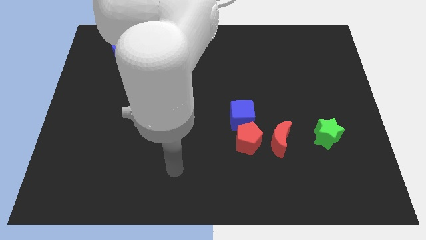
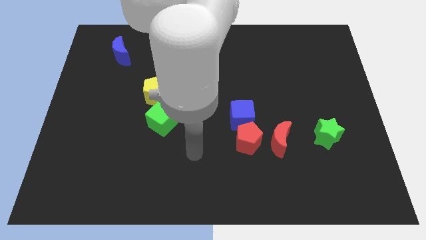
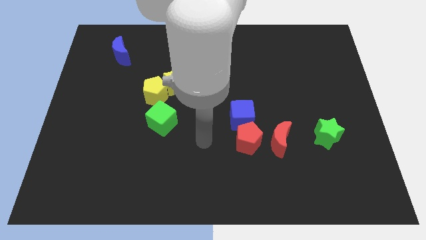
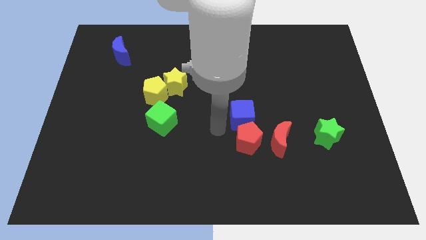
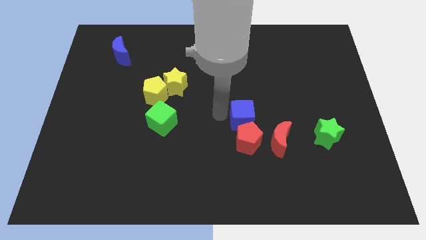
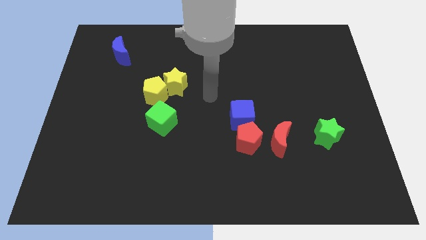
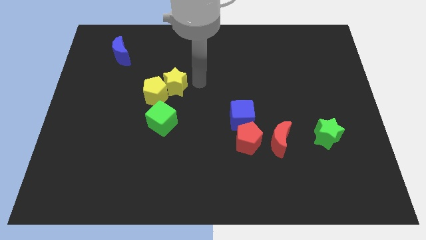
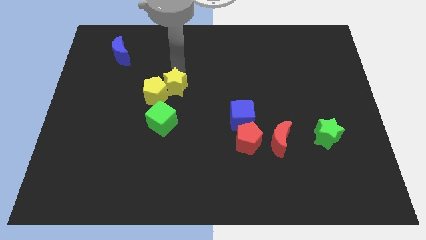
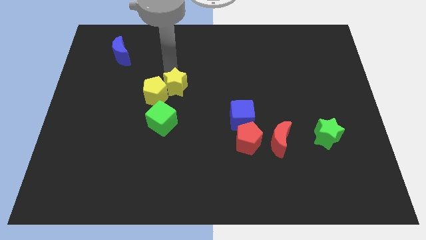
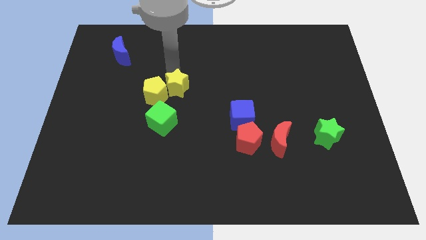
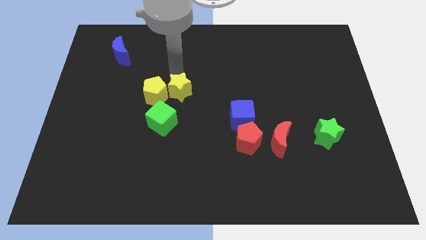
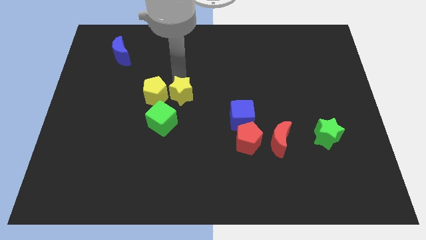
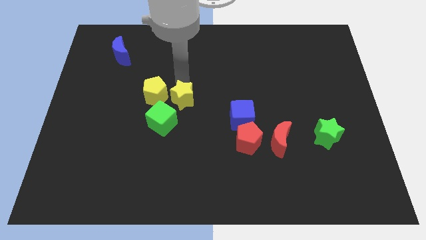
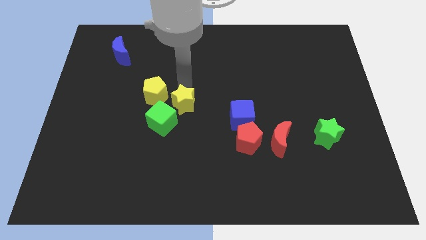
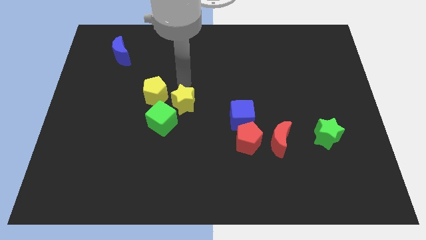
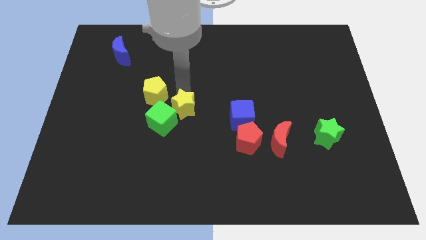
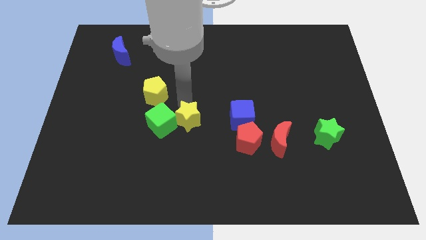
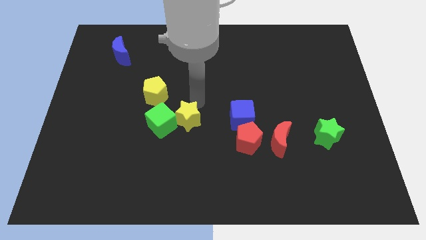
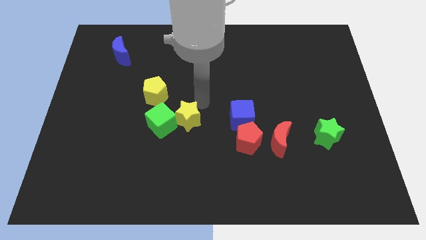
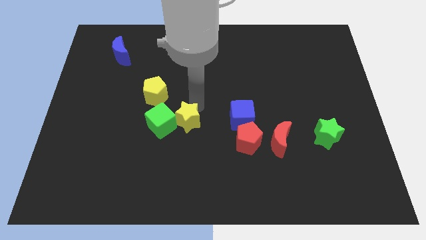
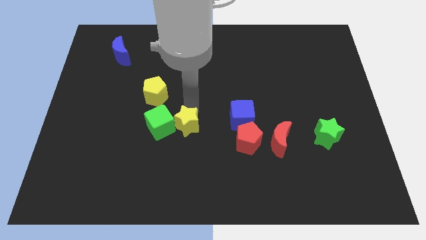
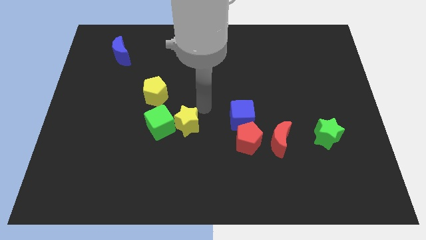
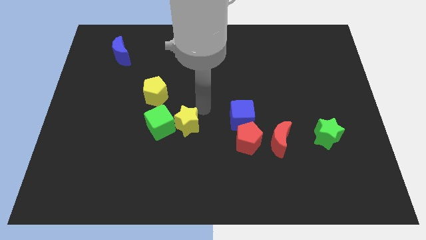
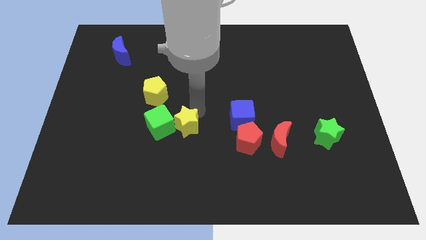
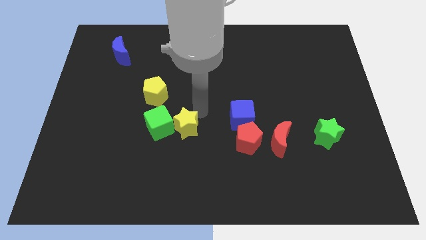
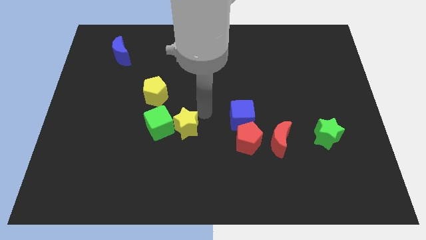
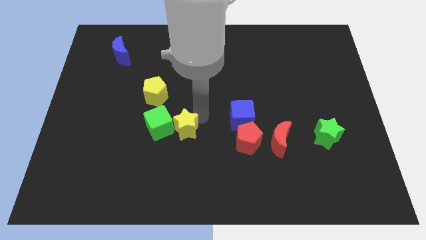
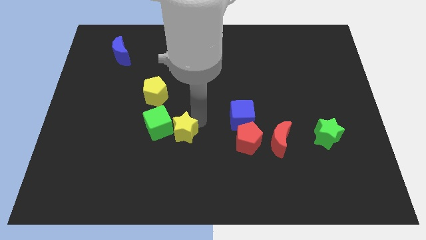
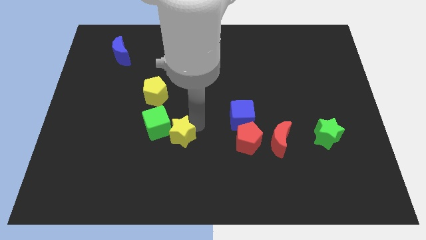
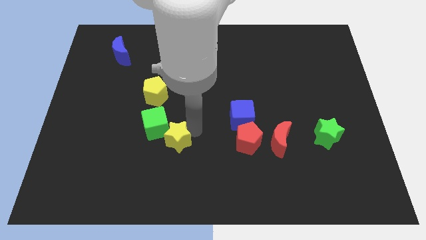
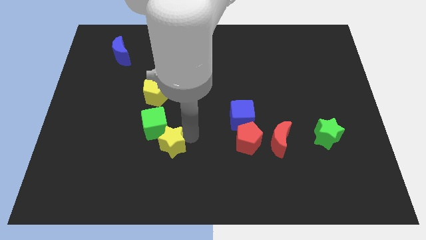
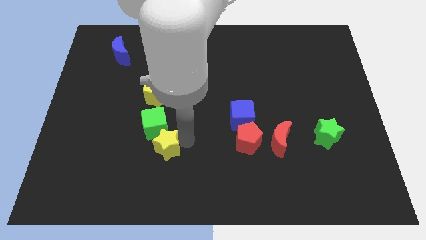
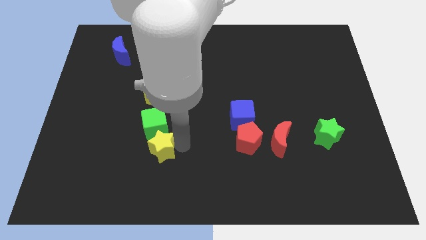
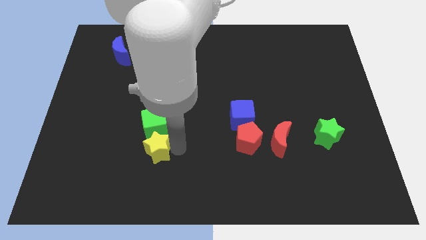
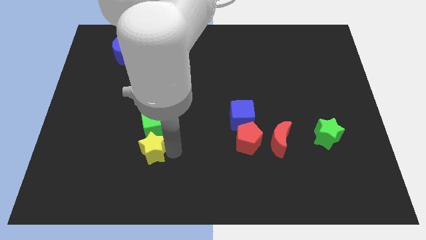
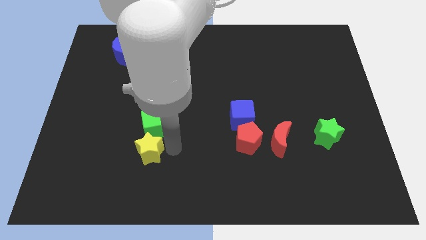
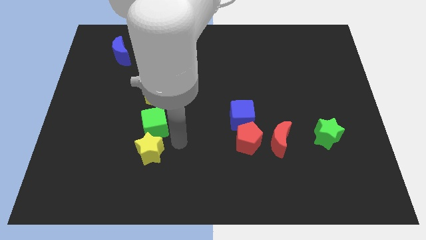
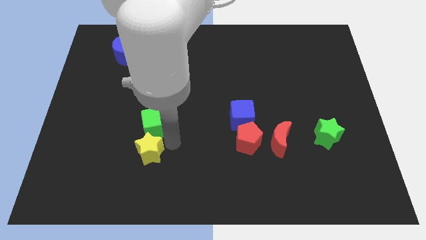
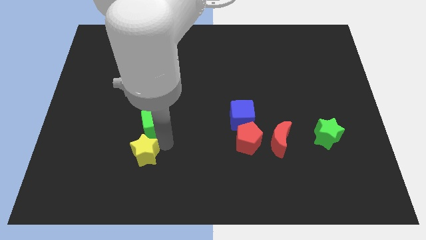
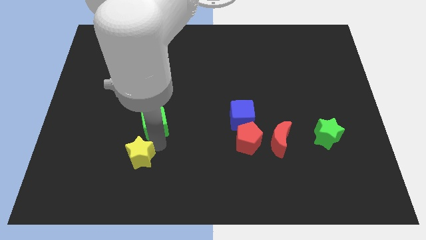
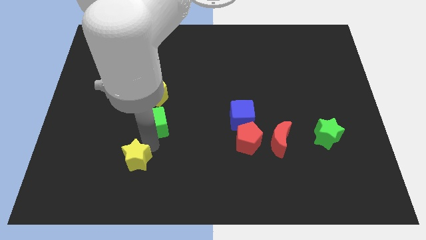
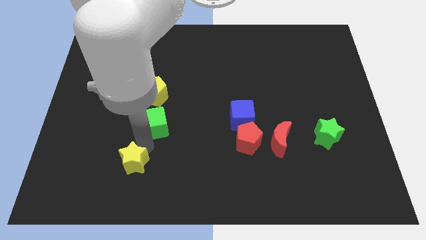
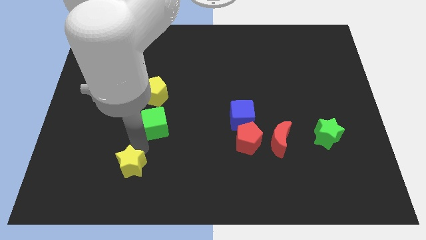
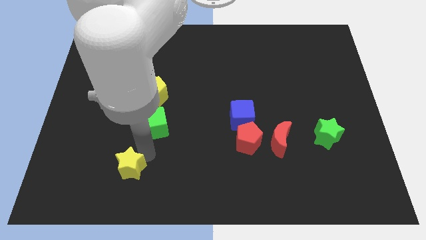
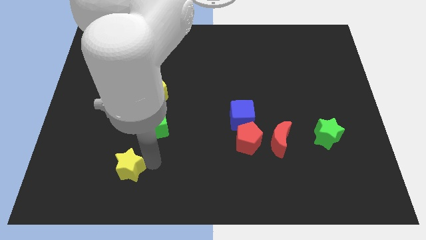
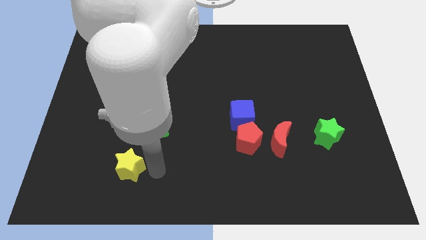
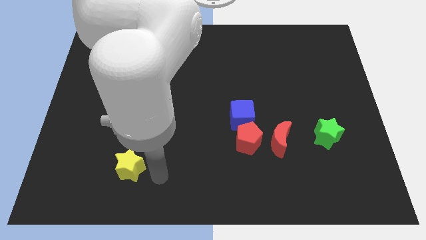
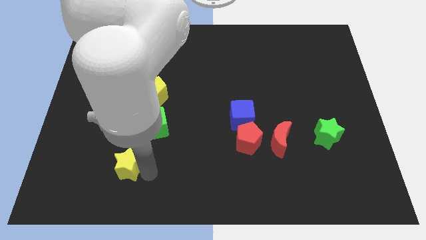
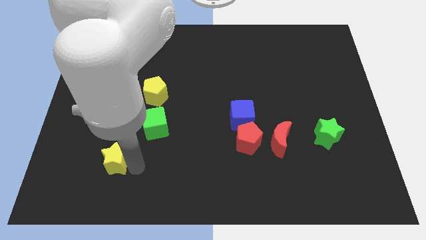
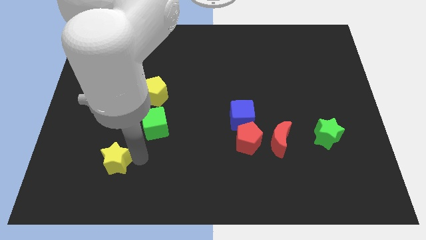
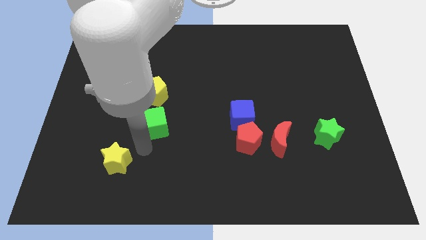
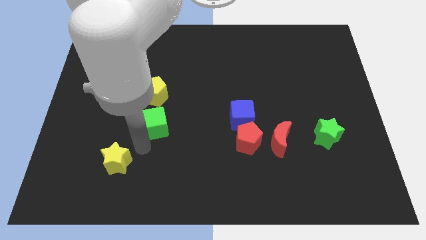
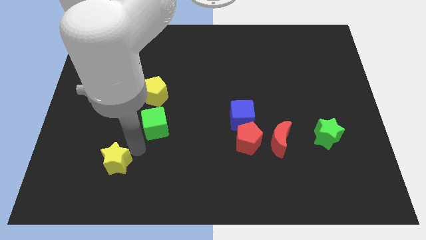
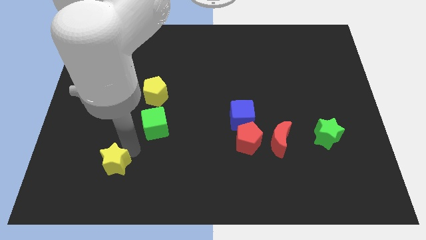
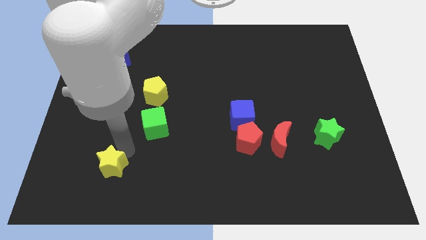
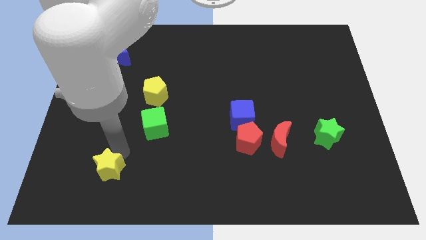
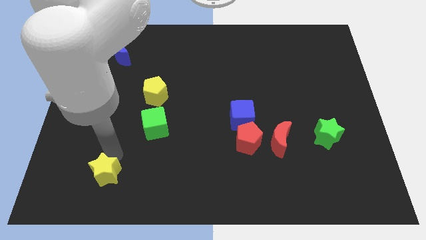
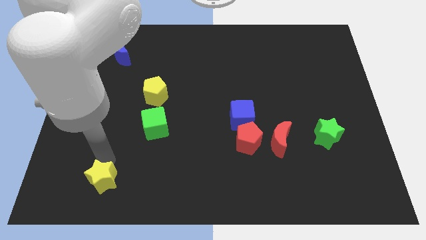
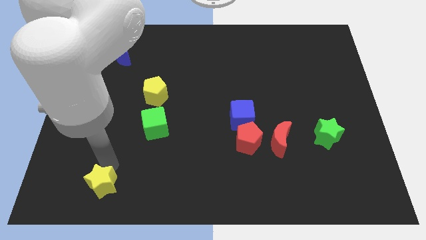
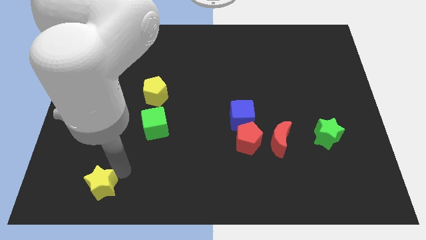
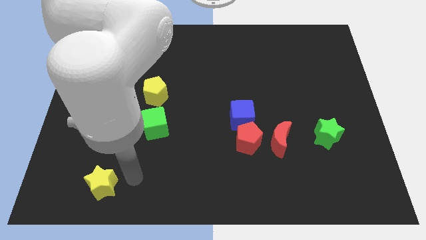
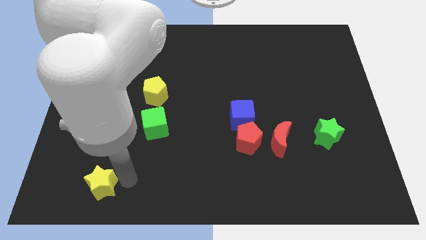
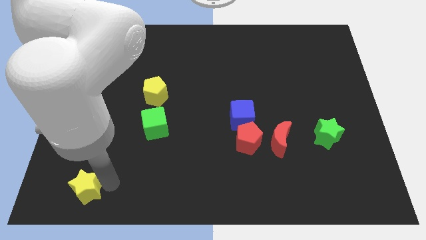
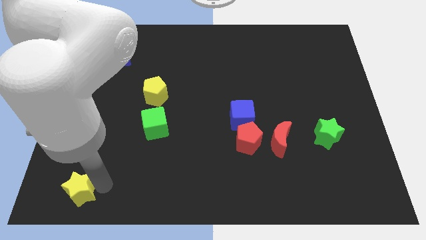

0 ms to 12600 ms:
slide the yellow star to the bottom left of the board
